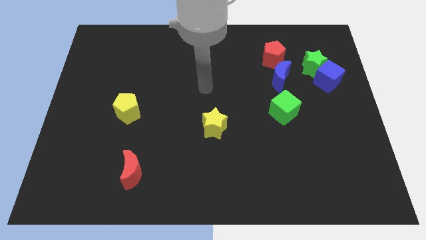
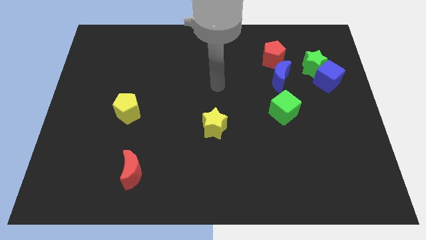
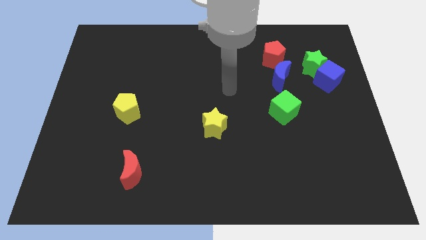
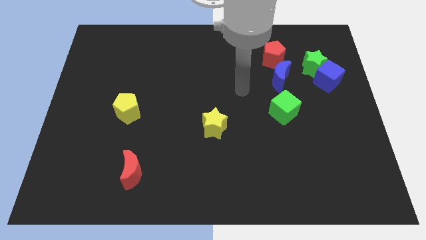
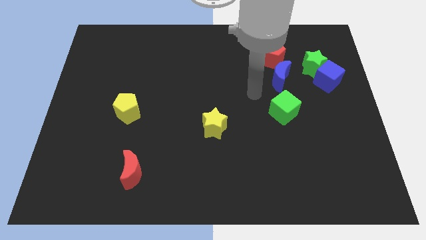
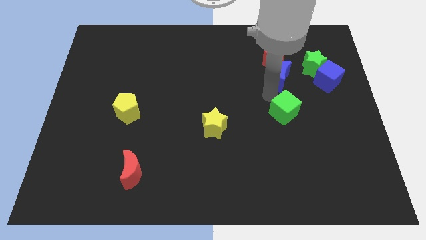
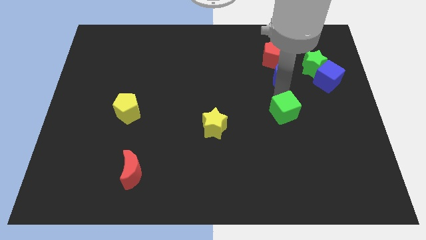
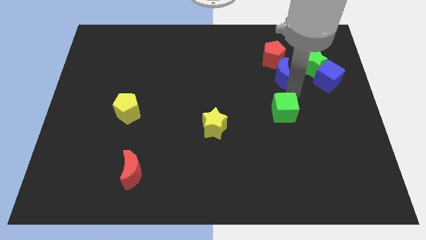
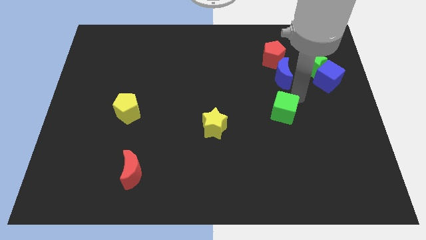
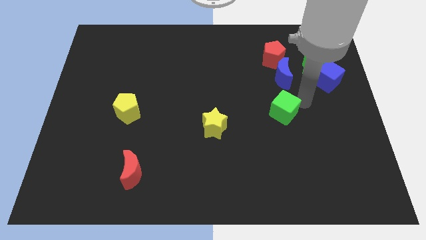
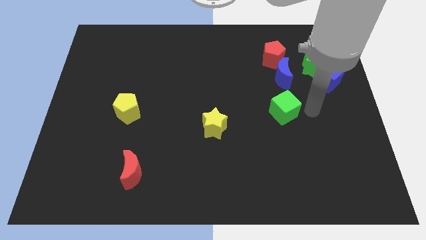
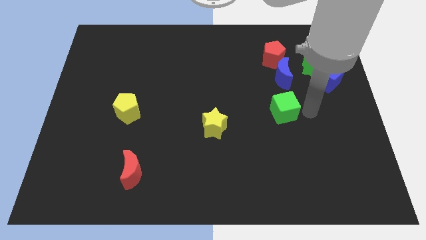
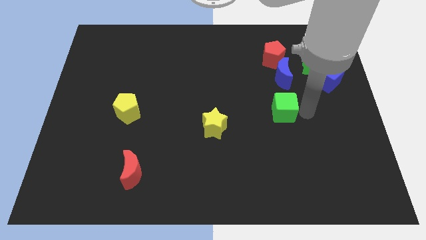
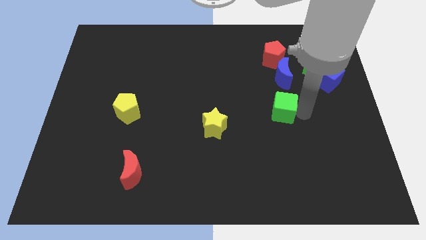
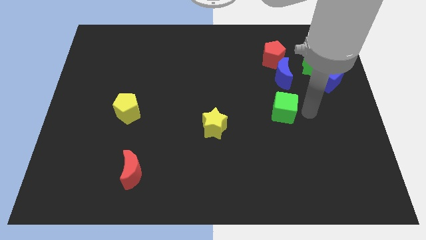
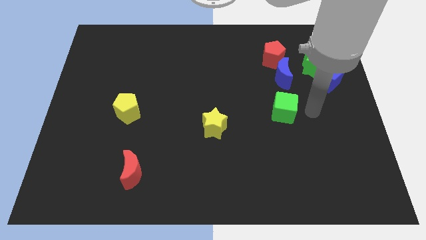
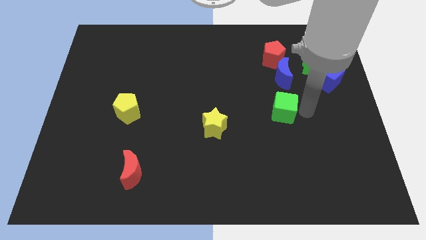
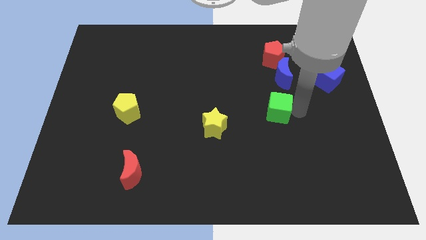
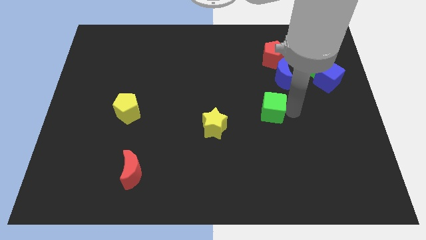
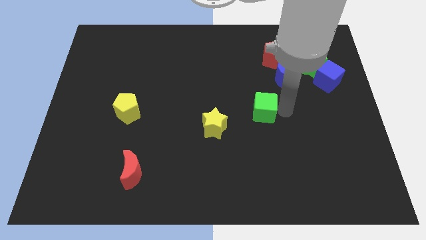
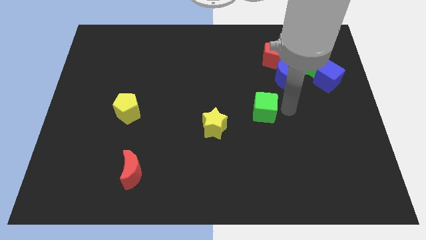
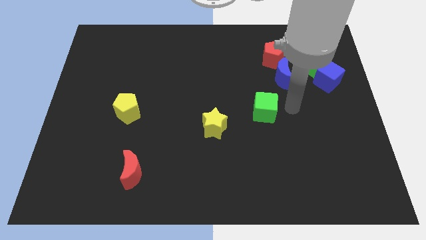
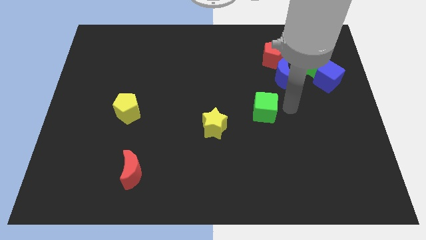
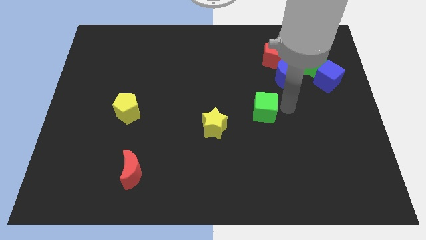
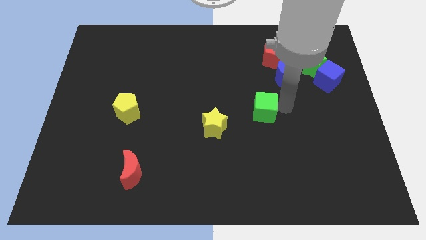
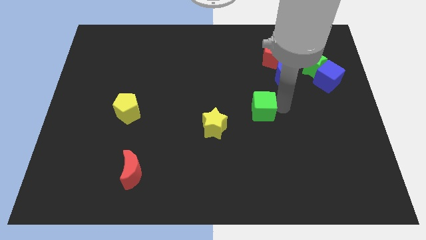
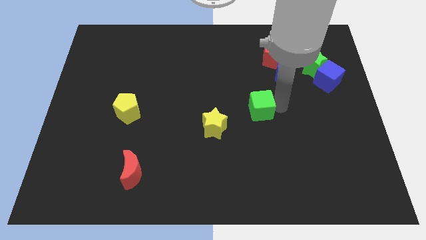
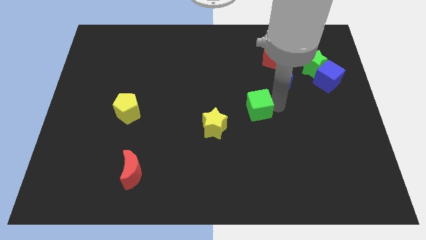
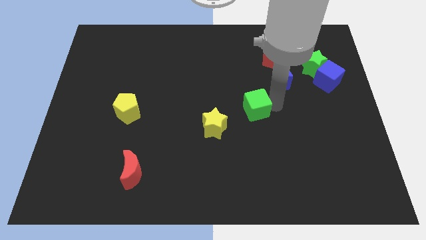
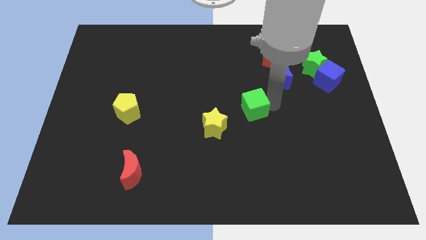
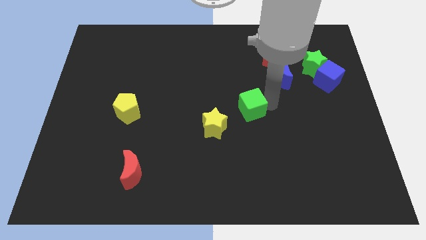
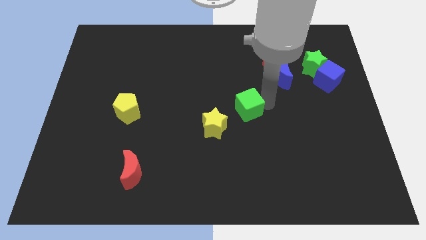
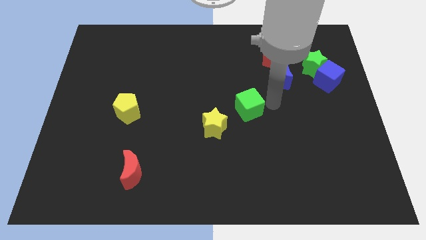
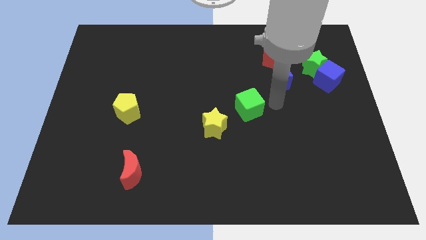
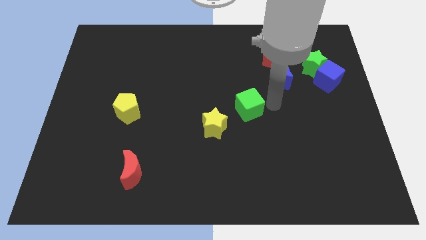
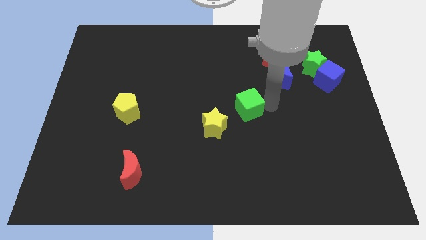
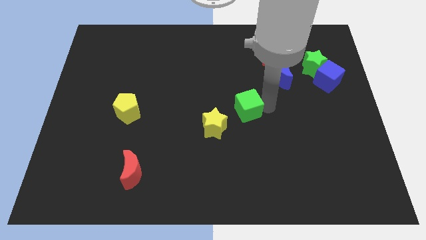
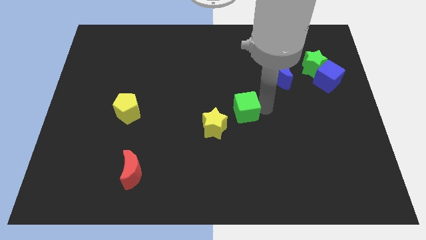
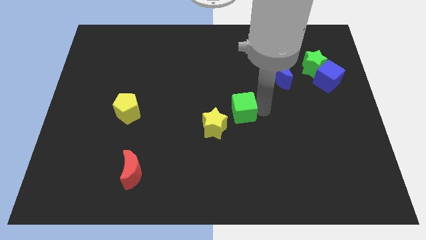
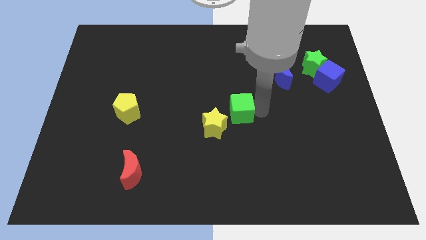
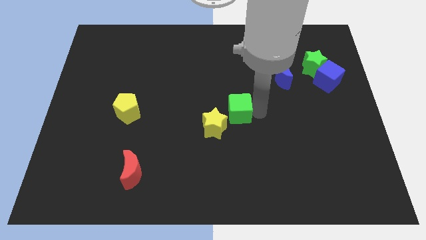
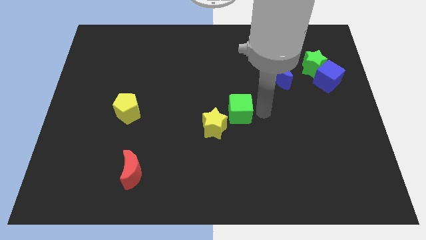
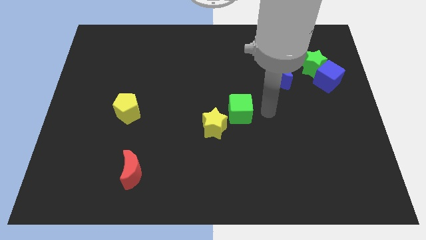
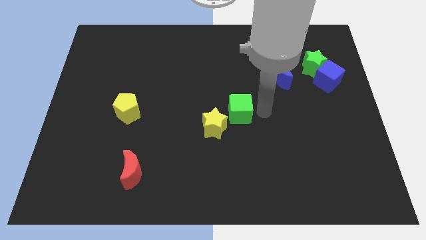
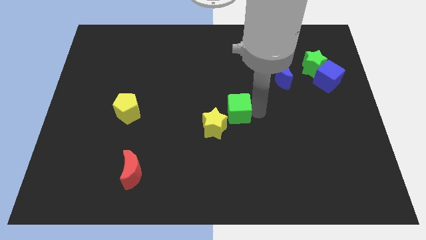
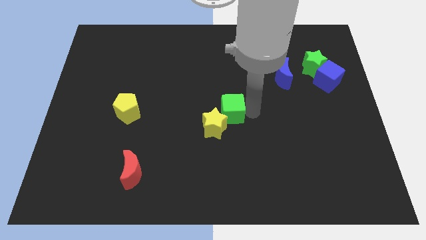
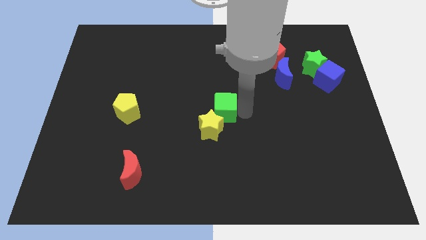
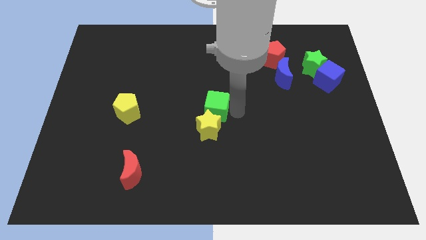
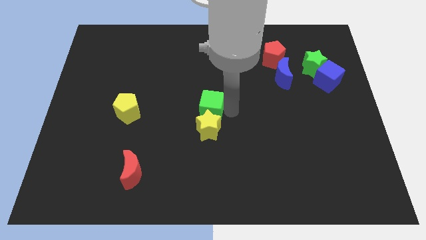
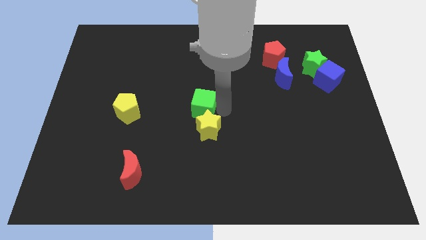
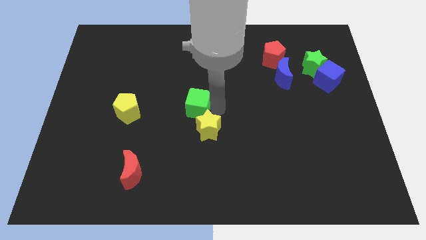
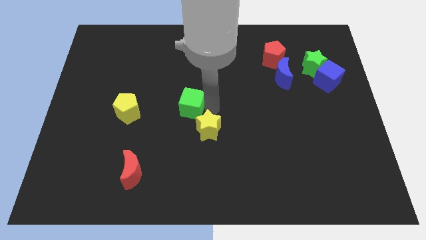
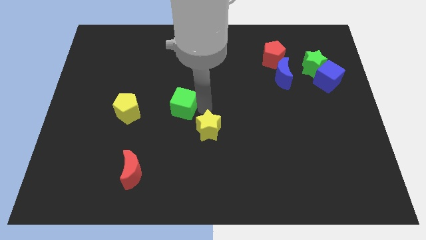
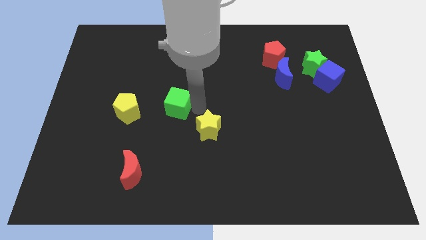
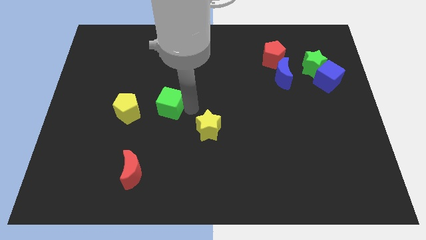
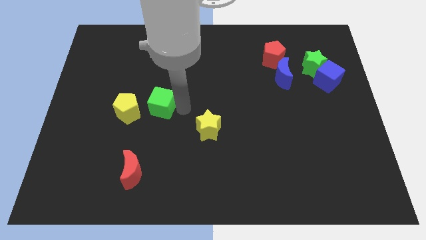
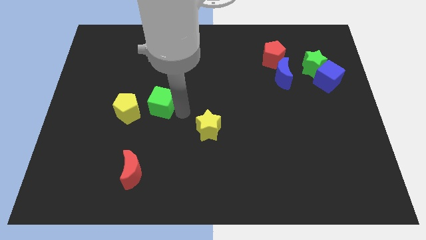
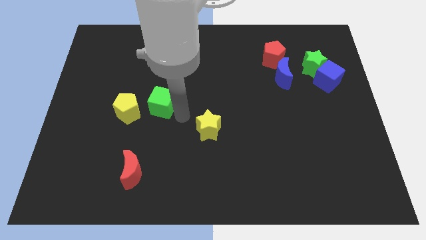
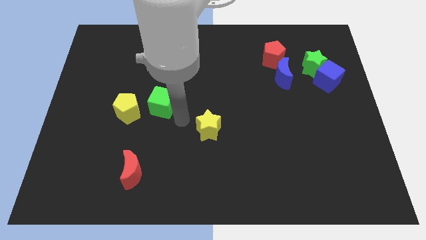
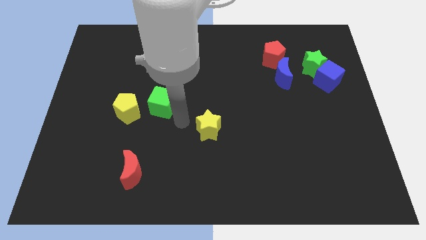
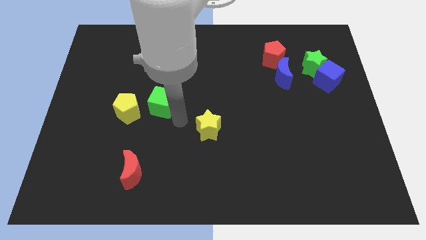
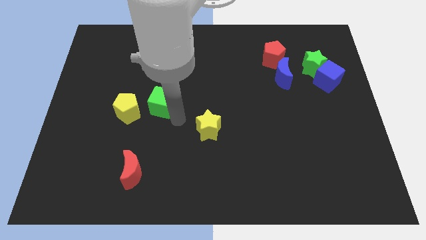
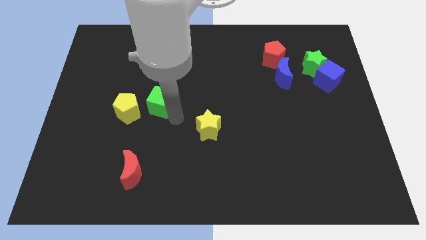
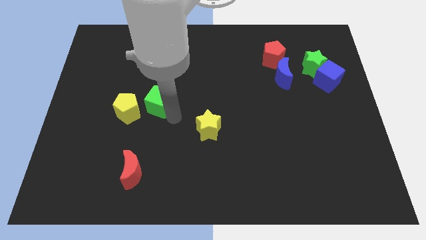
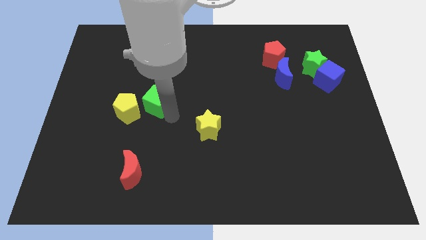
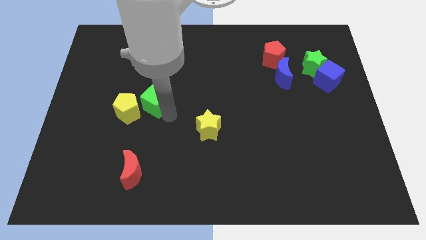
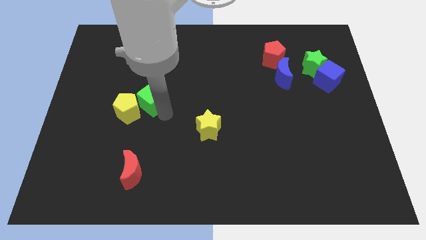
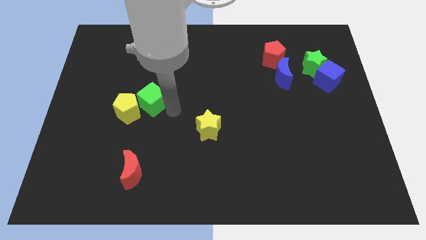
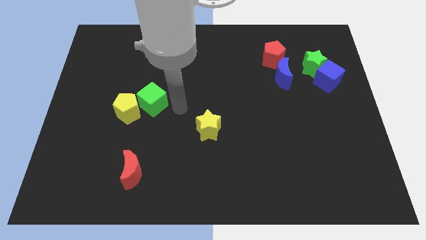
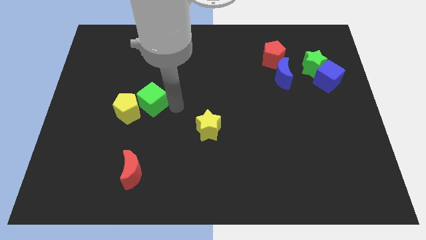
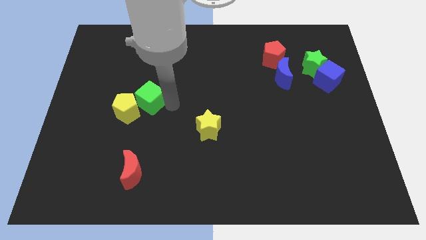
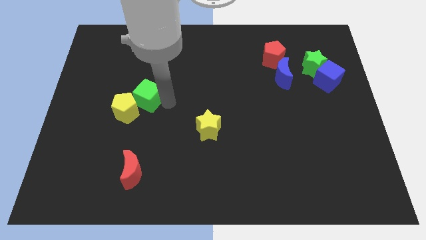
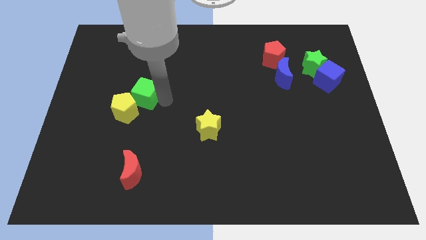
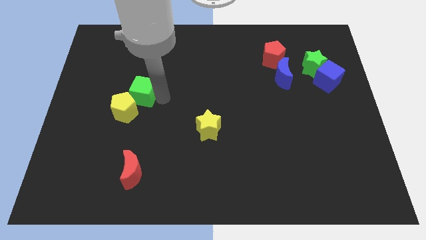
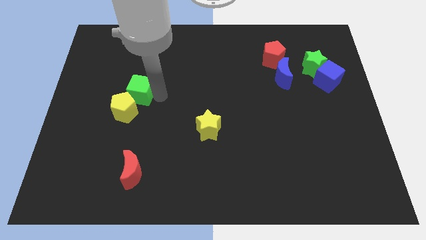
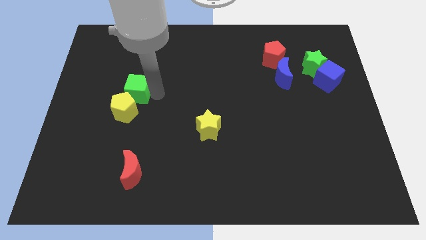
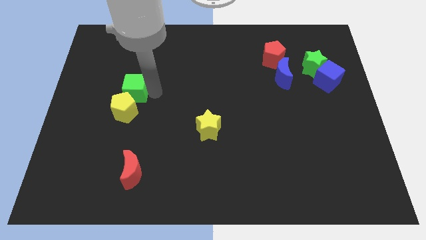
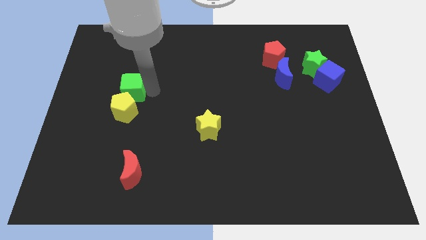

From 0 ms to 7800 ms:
push the green cube diagonally up and to the left of the yellow pentagon
